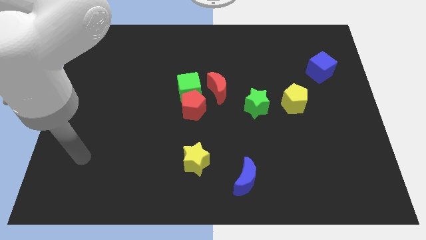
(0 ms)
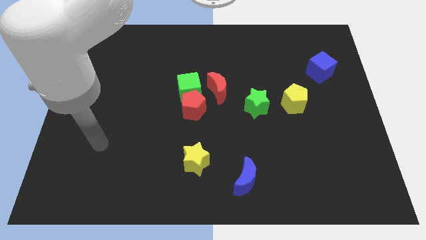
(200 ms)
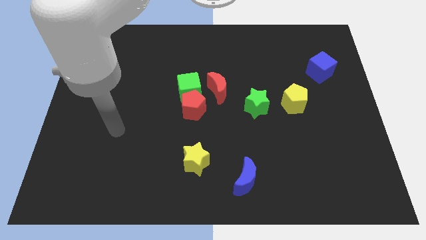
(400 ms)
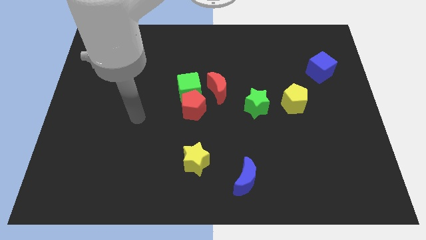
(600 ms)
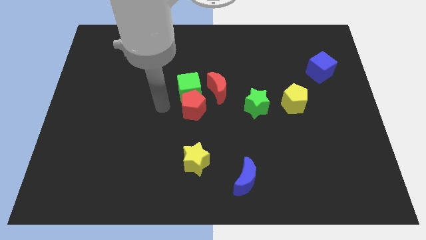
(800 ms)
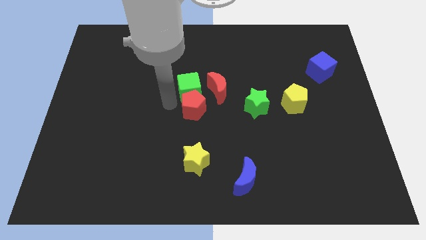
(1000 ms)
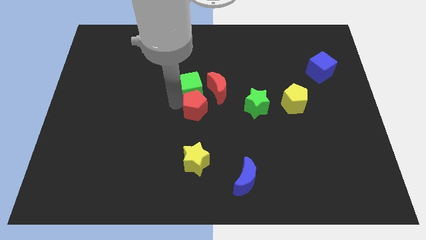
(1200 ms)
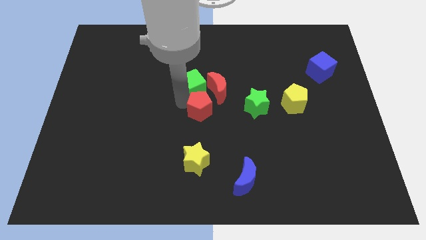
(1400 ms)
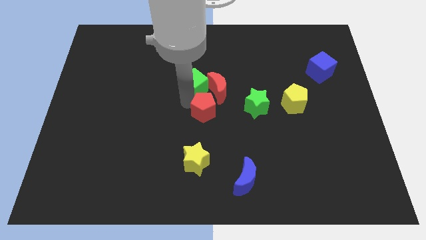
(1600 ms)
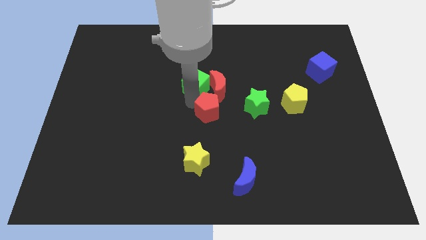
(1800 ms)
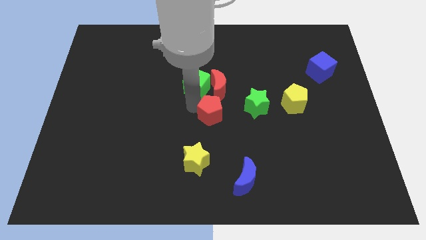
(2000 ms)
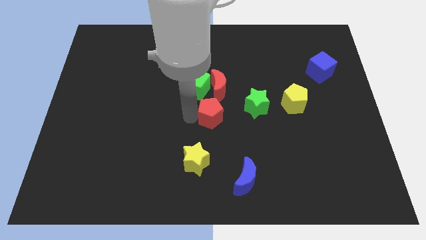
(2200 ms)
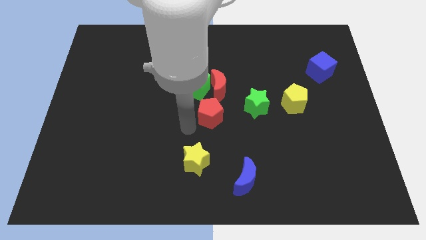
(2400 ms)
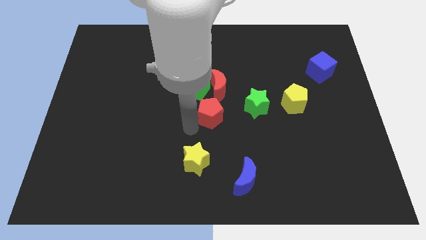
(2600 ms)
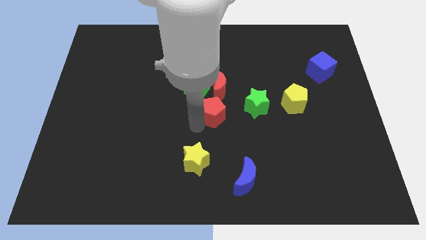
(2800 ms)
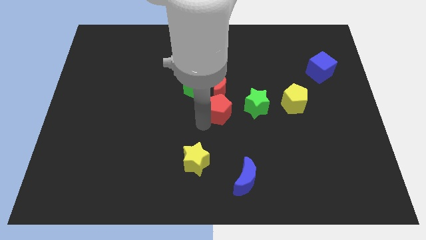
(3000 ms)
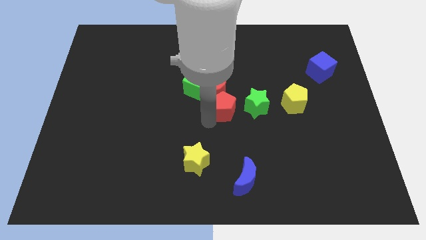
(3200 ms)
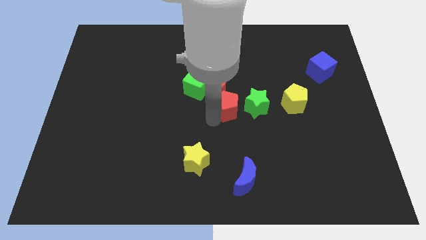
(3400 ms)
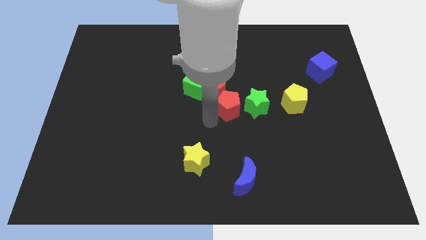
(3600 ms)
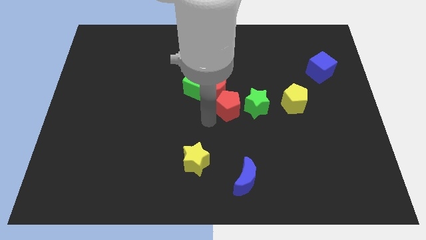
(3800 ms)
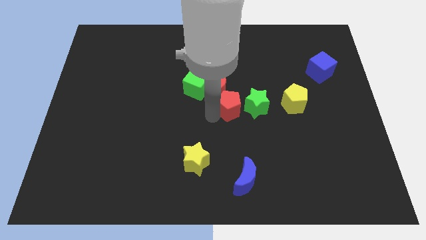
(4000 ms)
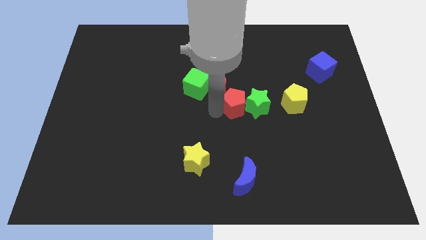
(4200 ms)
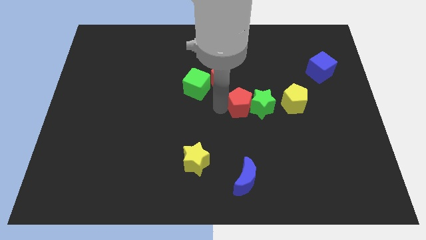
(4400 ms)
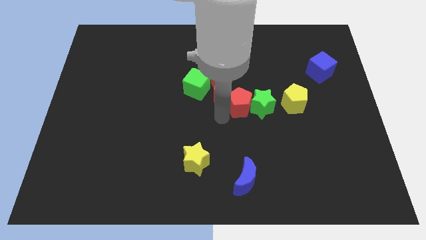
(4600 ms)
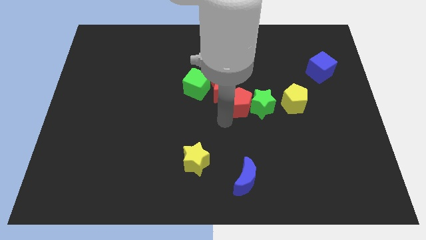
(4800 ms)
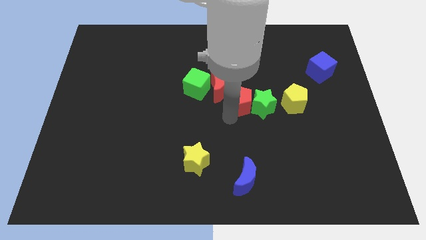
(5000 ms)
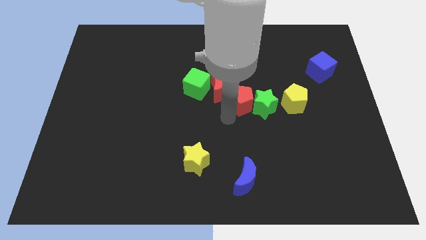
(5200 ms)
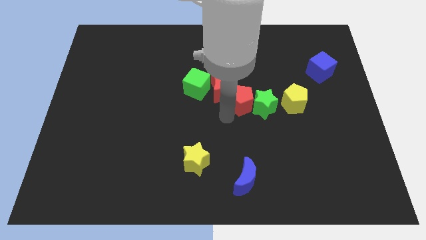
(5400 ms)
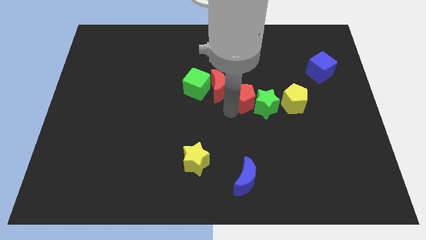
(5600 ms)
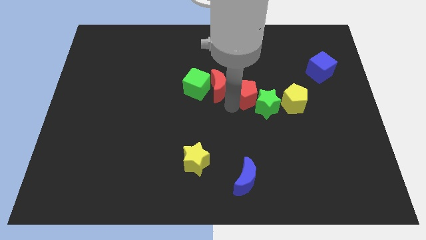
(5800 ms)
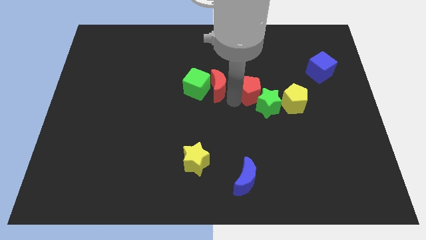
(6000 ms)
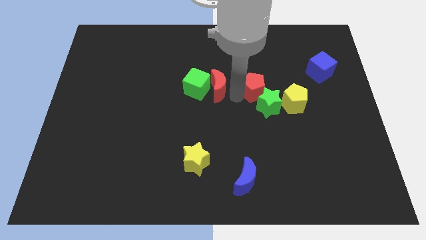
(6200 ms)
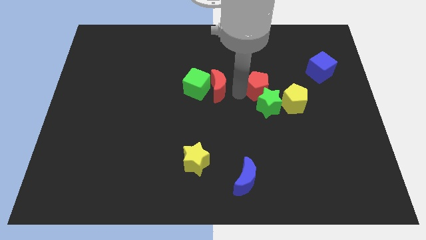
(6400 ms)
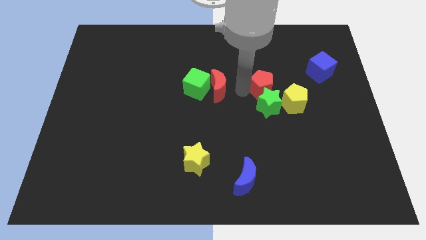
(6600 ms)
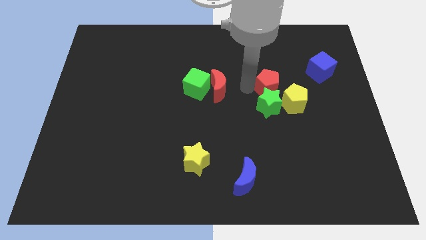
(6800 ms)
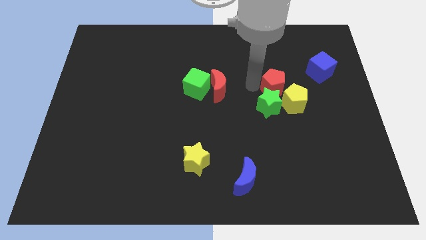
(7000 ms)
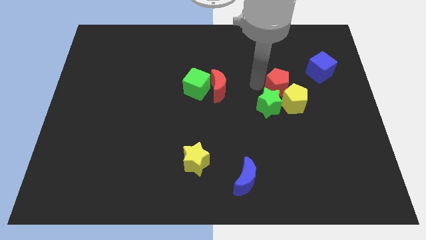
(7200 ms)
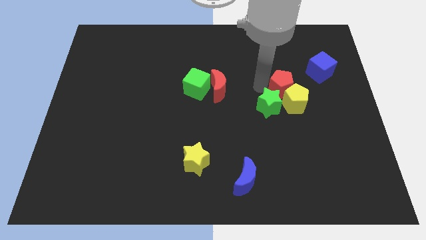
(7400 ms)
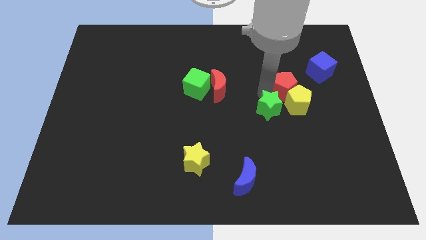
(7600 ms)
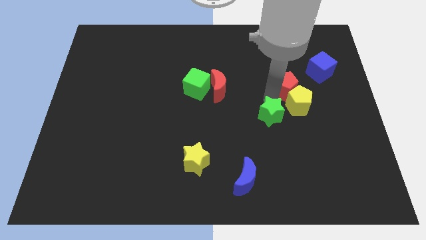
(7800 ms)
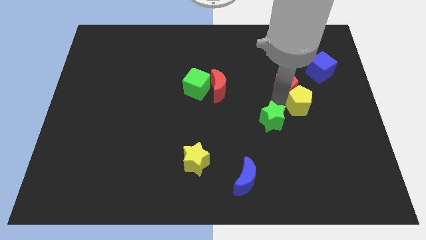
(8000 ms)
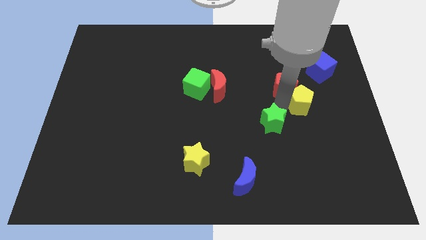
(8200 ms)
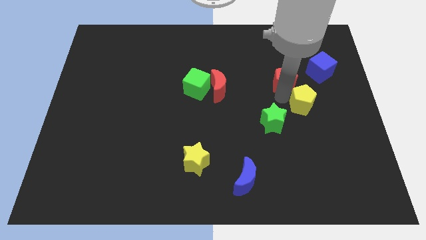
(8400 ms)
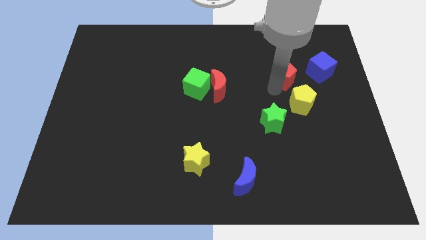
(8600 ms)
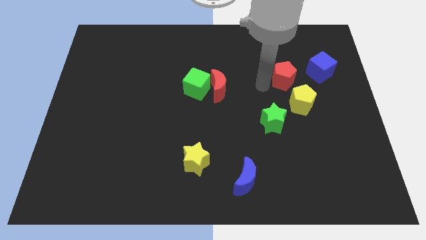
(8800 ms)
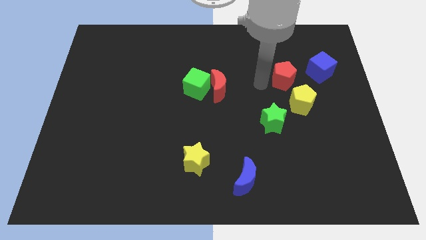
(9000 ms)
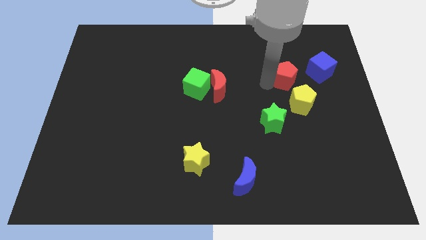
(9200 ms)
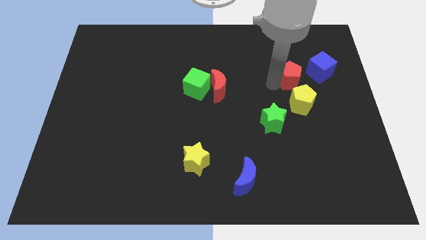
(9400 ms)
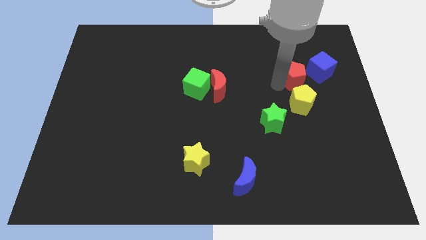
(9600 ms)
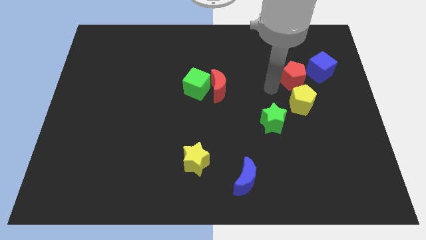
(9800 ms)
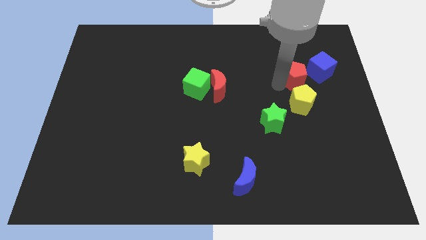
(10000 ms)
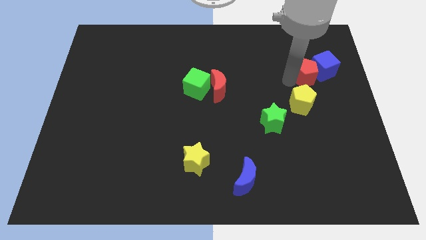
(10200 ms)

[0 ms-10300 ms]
put the red pentagon to the blue cube
